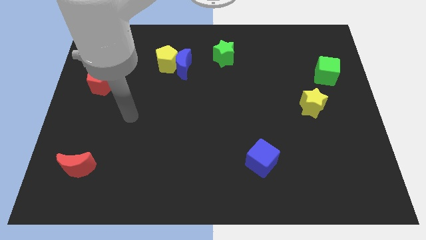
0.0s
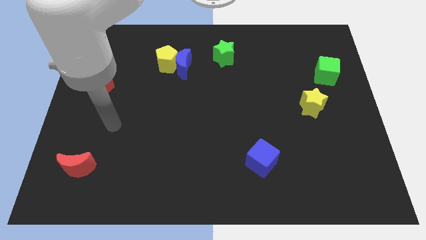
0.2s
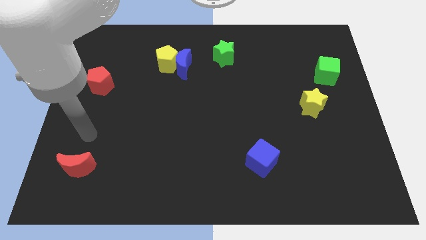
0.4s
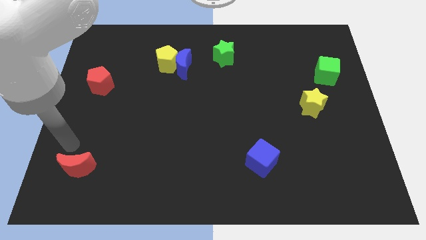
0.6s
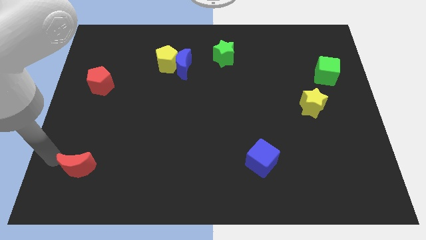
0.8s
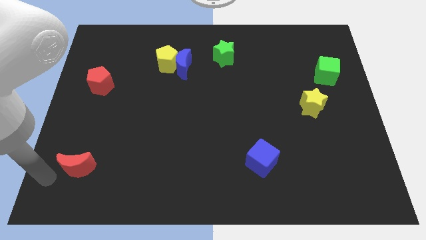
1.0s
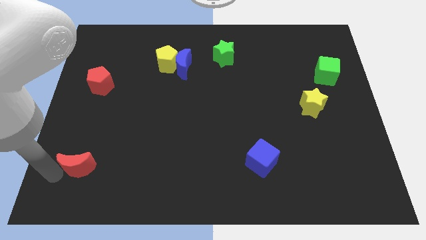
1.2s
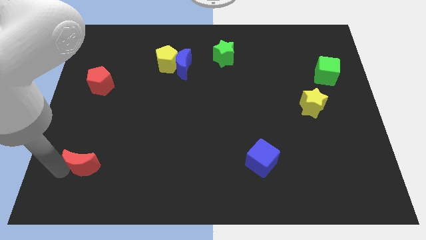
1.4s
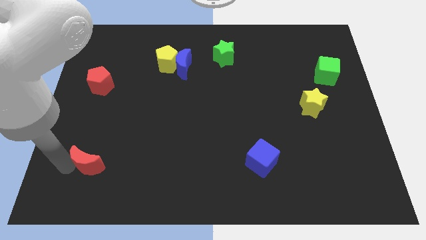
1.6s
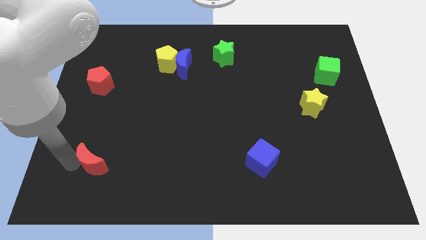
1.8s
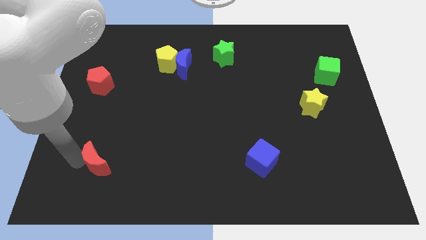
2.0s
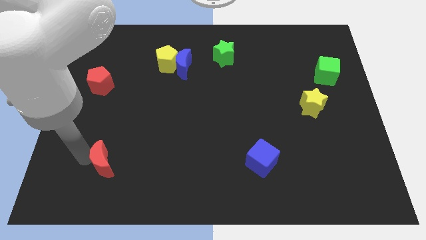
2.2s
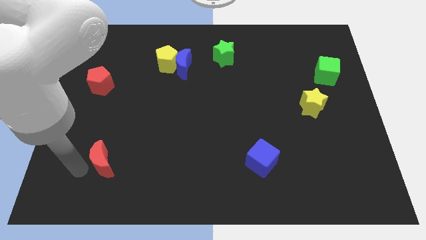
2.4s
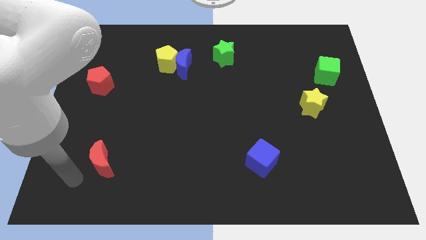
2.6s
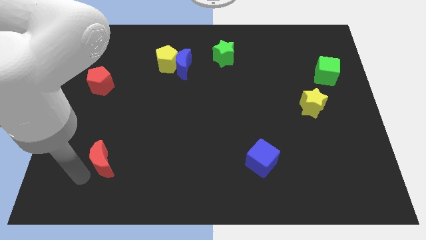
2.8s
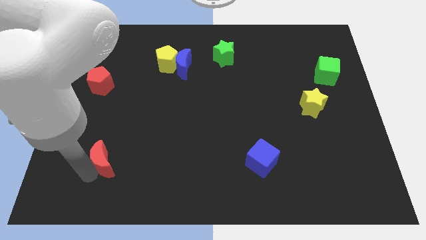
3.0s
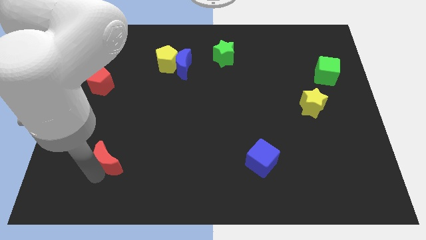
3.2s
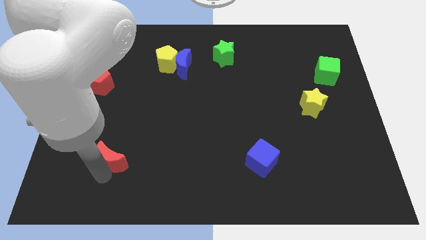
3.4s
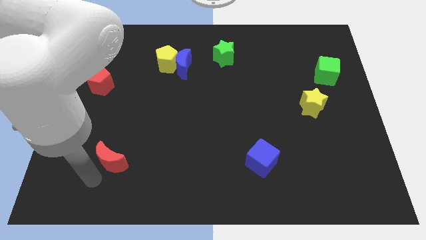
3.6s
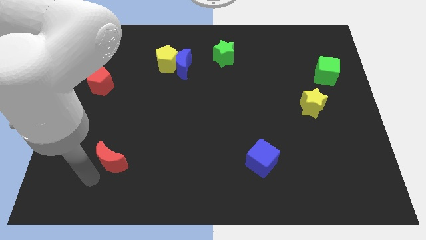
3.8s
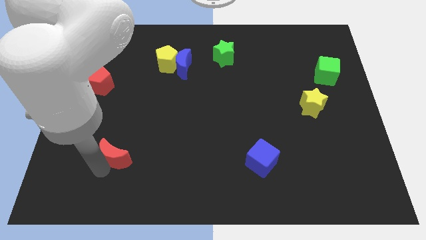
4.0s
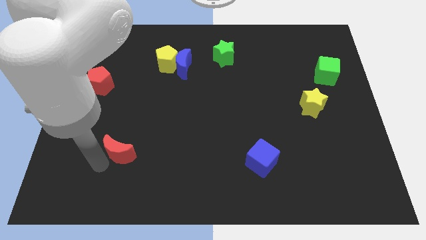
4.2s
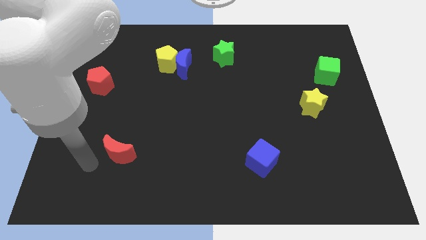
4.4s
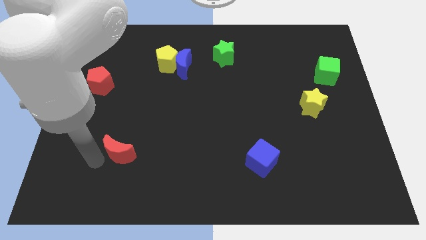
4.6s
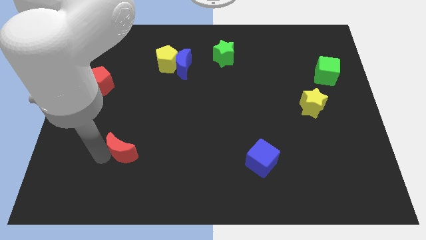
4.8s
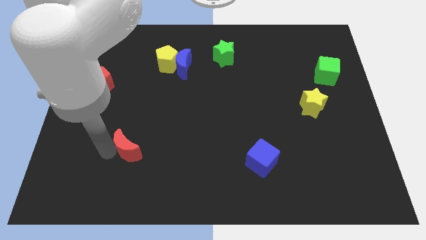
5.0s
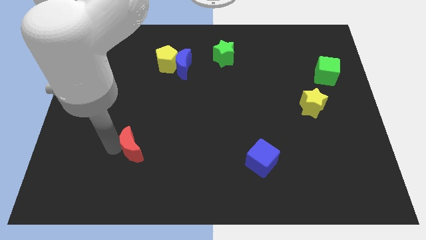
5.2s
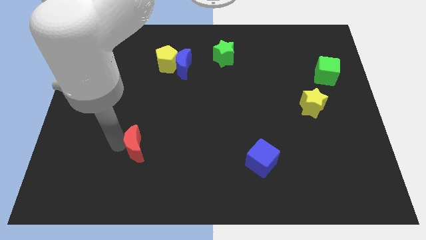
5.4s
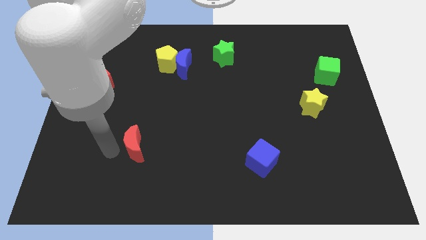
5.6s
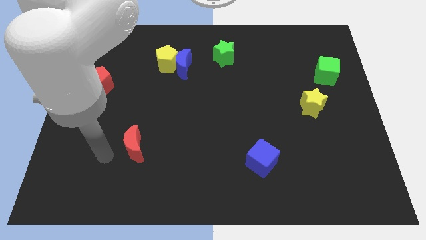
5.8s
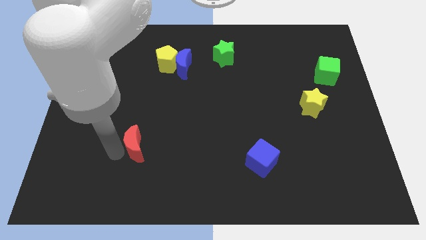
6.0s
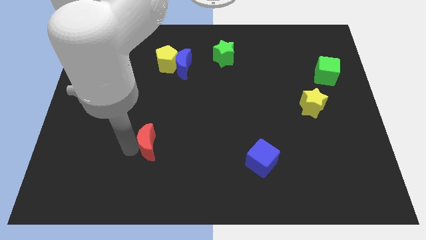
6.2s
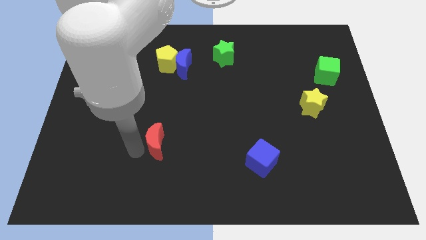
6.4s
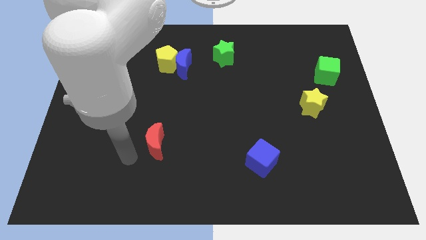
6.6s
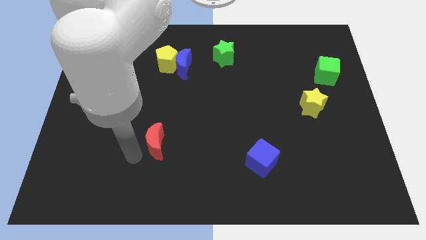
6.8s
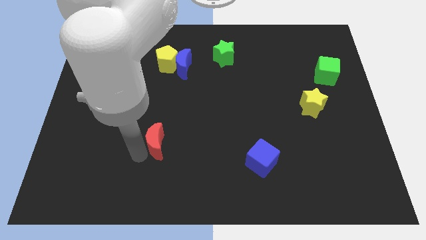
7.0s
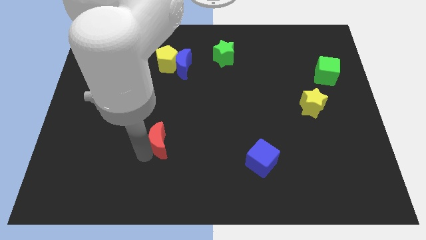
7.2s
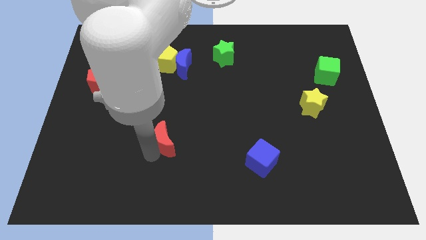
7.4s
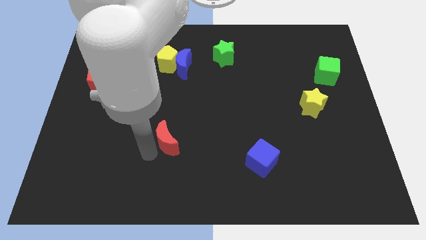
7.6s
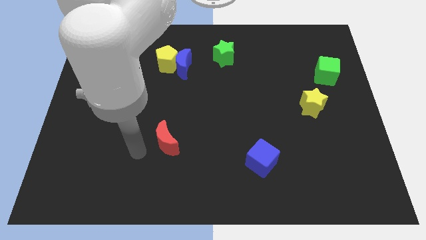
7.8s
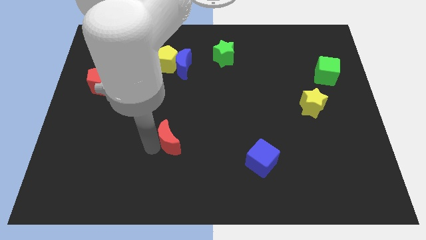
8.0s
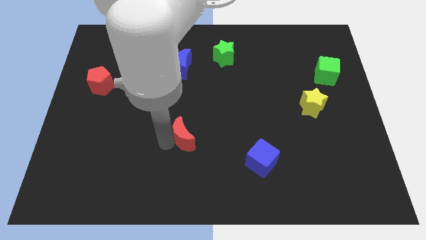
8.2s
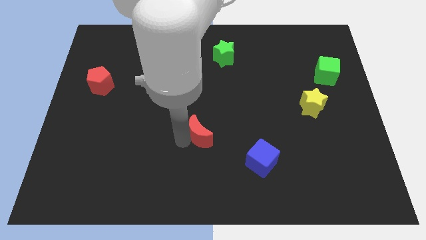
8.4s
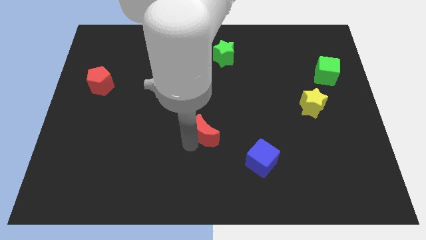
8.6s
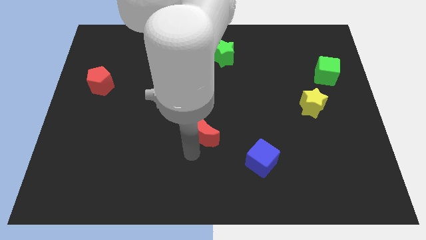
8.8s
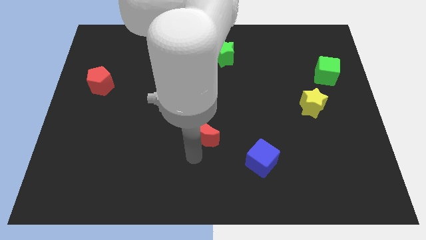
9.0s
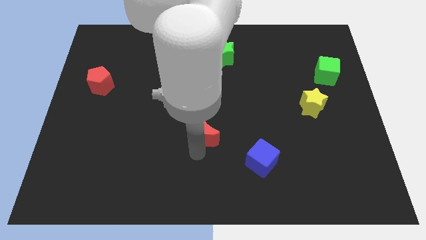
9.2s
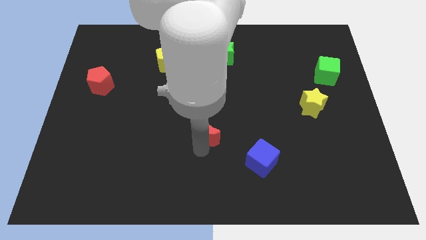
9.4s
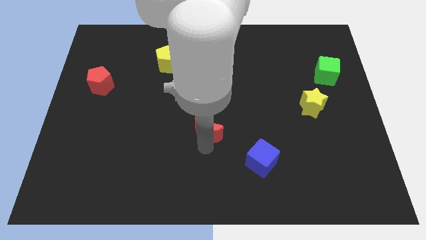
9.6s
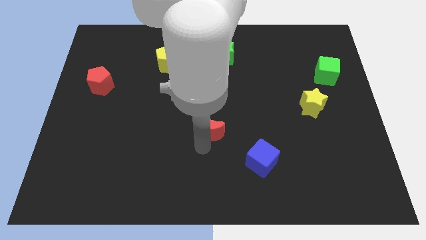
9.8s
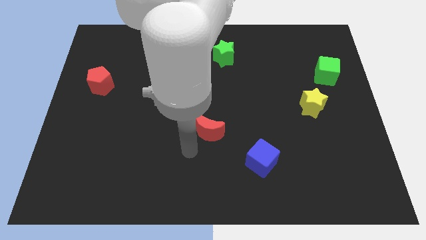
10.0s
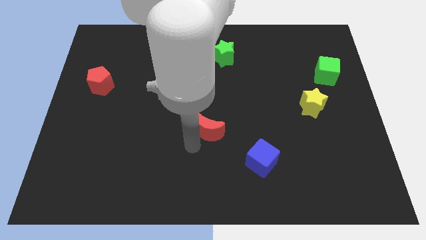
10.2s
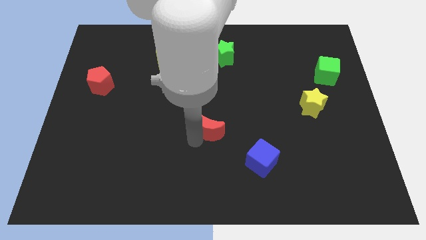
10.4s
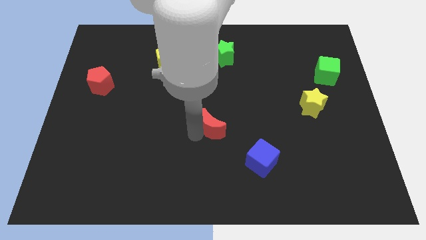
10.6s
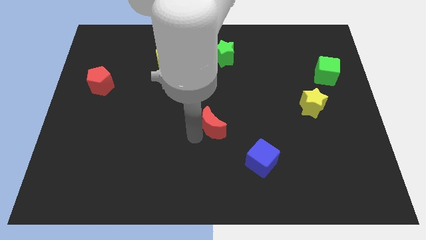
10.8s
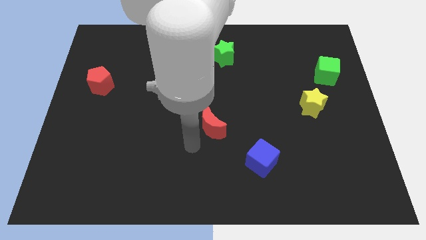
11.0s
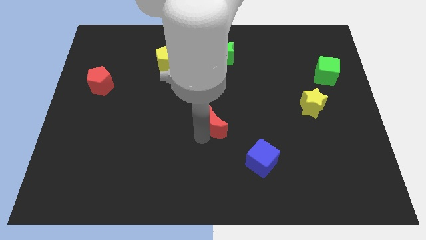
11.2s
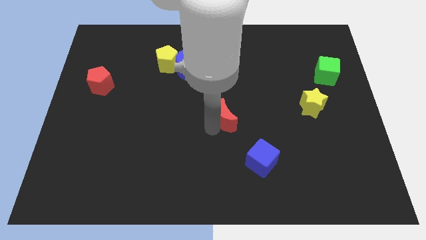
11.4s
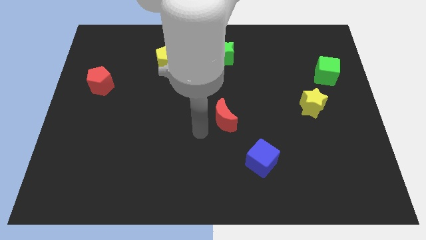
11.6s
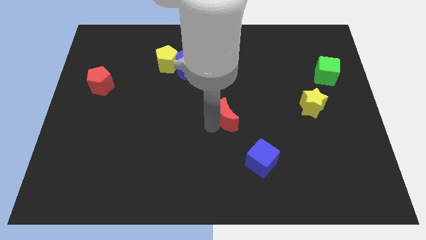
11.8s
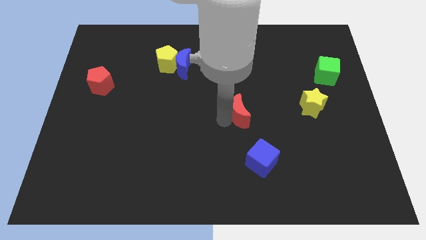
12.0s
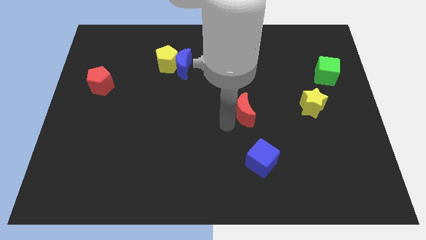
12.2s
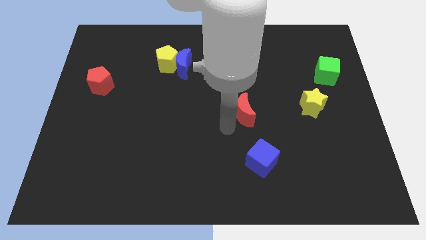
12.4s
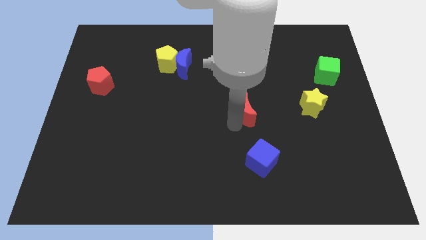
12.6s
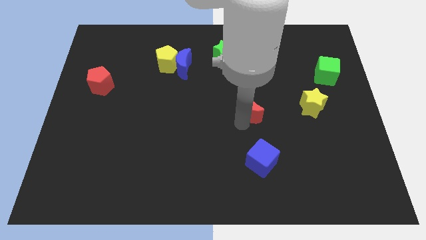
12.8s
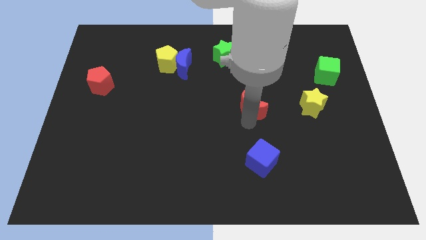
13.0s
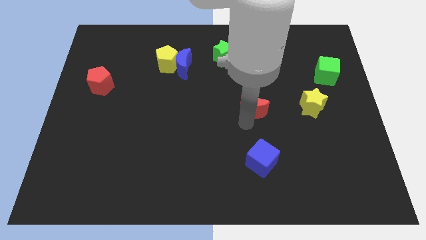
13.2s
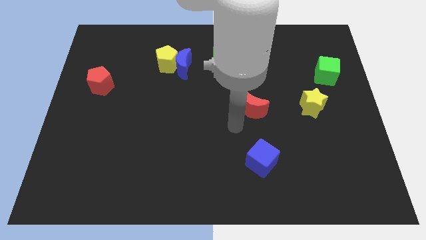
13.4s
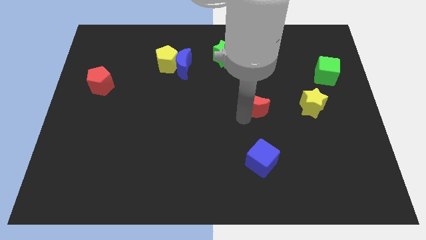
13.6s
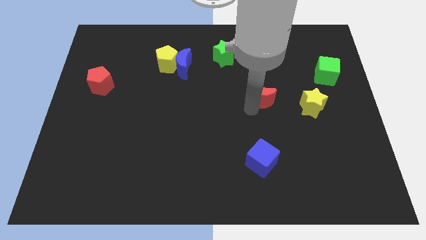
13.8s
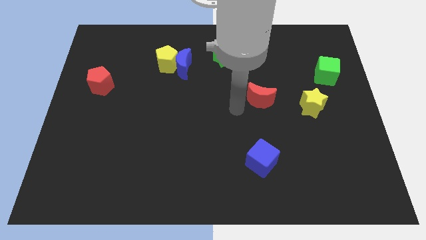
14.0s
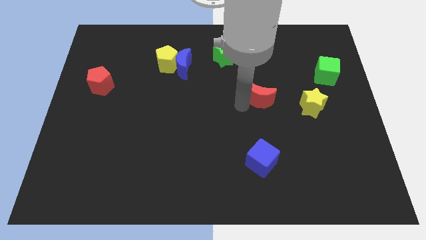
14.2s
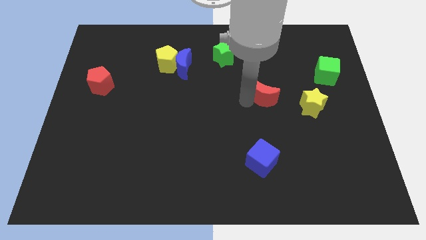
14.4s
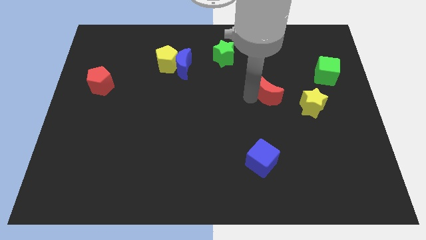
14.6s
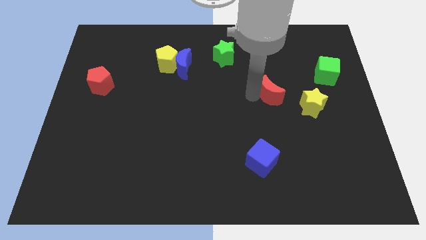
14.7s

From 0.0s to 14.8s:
put the red moon to the top left of the yellow star

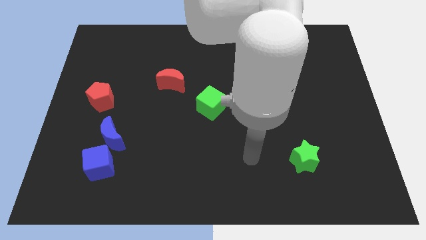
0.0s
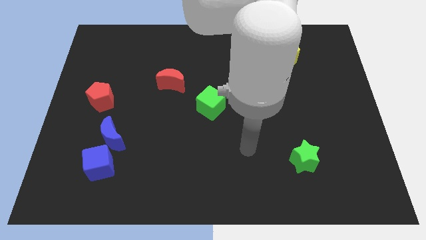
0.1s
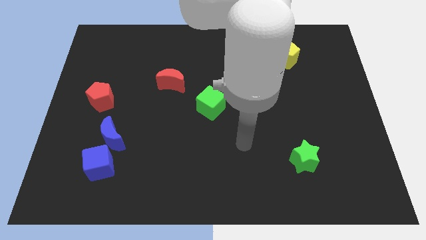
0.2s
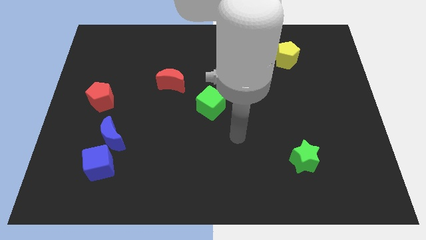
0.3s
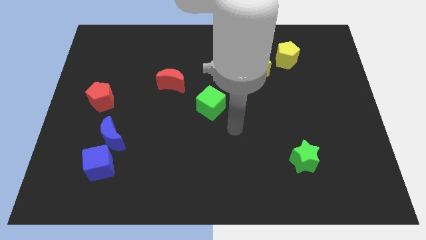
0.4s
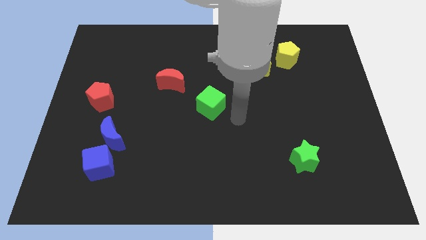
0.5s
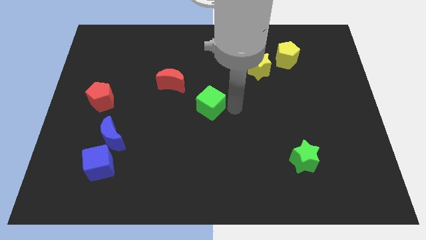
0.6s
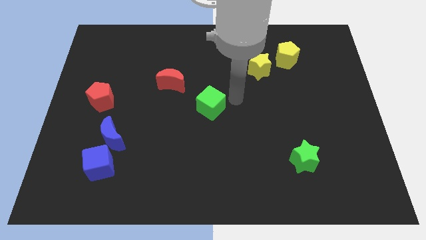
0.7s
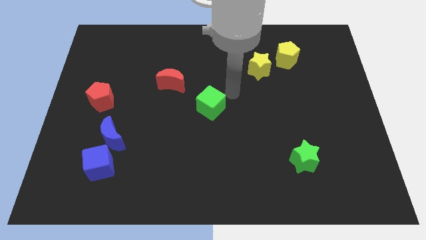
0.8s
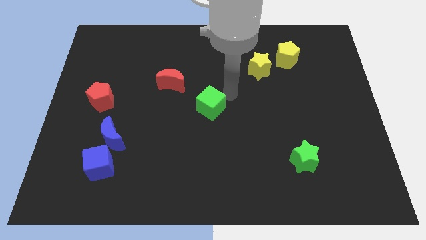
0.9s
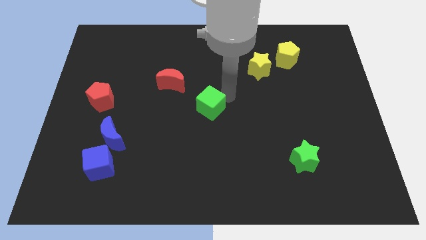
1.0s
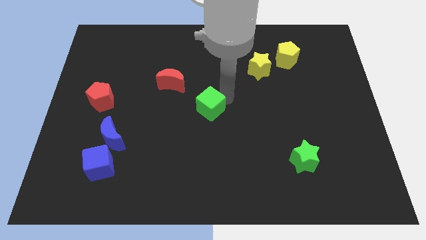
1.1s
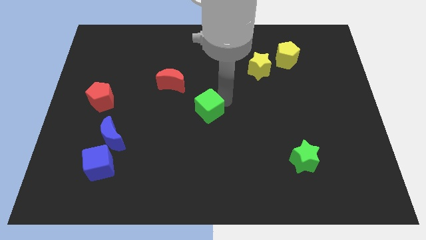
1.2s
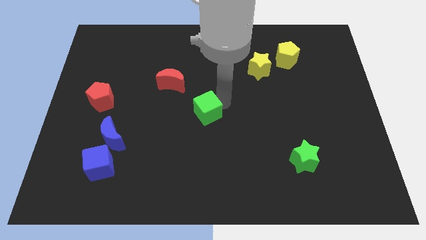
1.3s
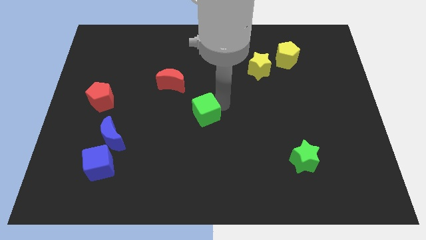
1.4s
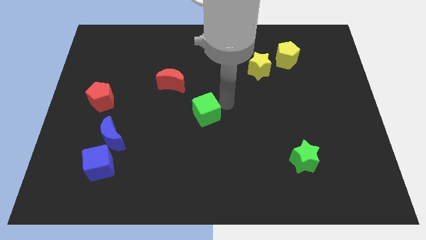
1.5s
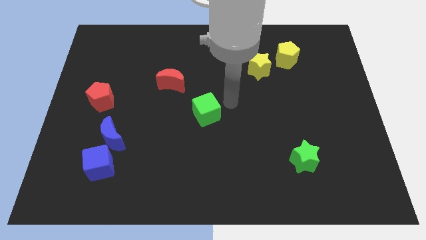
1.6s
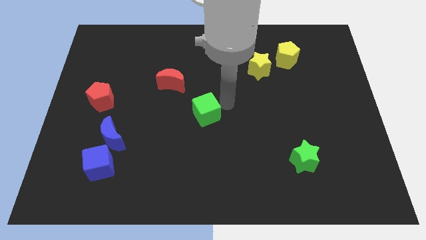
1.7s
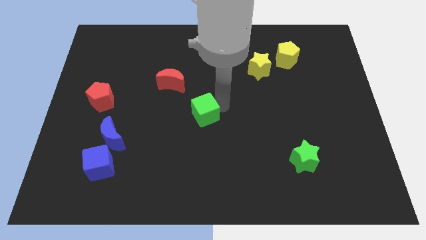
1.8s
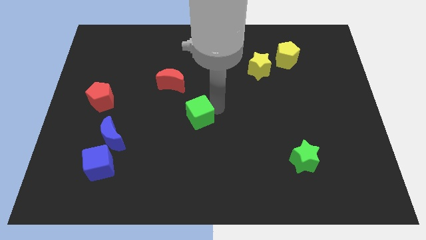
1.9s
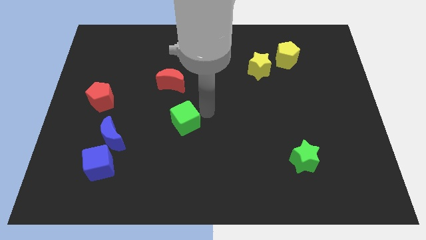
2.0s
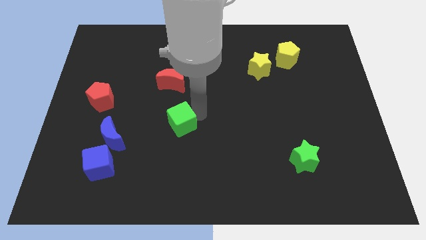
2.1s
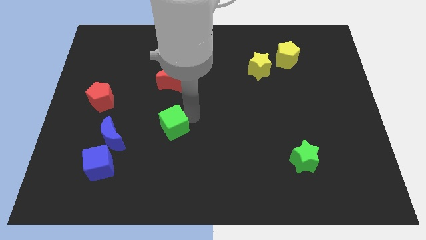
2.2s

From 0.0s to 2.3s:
slide the green cube right of the blue moon
